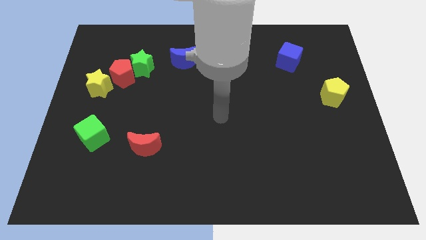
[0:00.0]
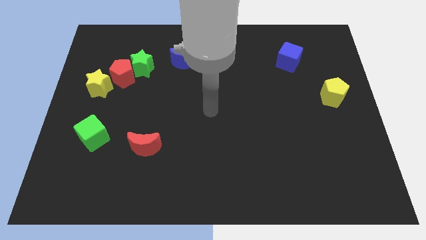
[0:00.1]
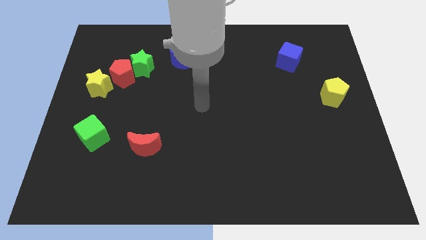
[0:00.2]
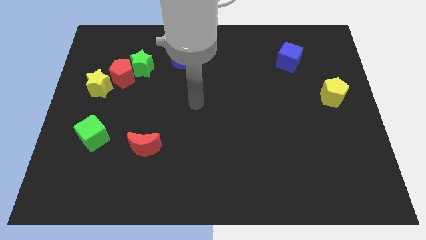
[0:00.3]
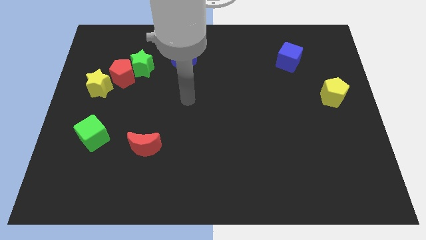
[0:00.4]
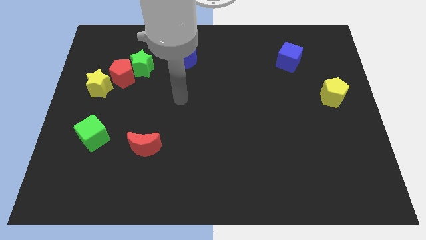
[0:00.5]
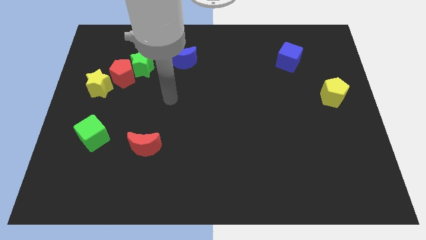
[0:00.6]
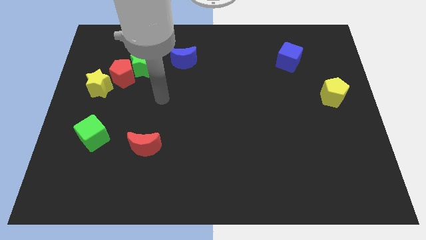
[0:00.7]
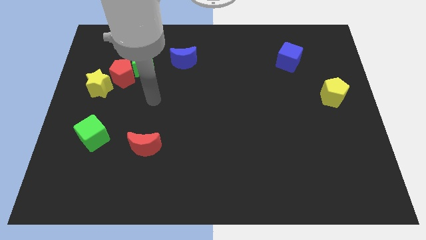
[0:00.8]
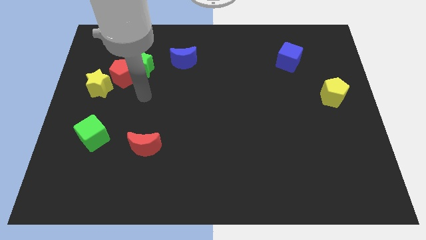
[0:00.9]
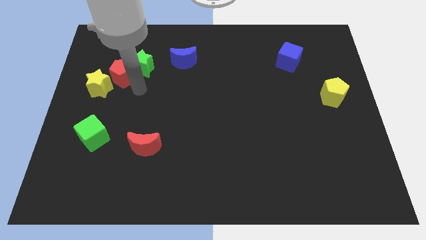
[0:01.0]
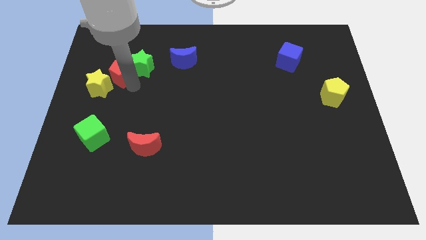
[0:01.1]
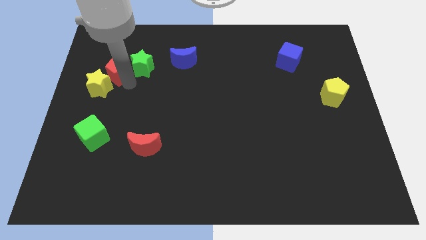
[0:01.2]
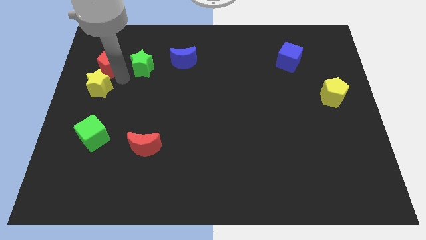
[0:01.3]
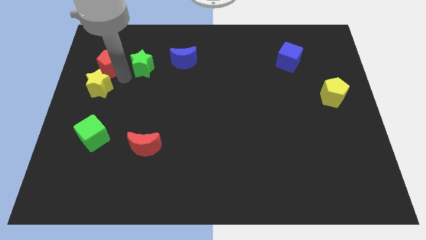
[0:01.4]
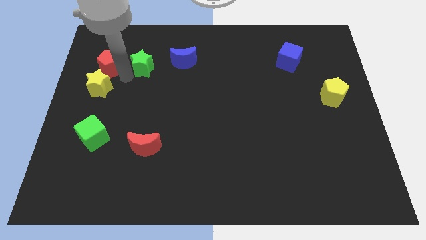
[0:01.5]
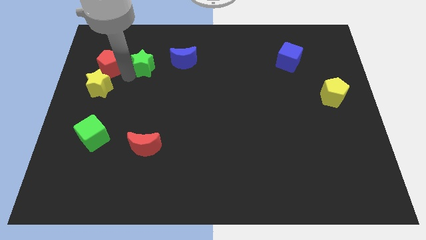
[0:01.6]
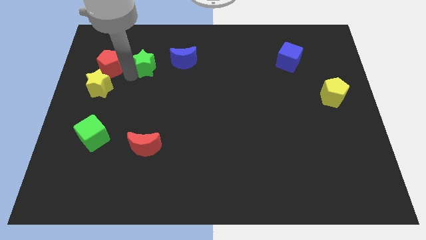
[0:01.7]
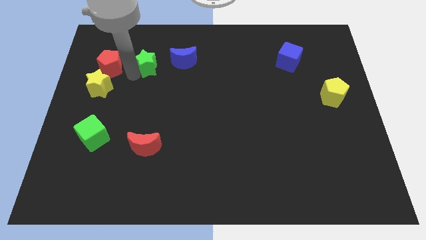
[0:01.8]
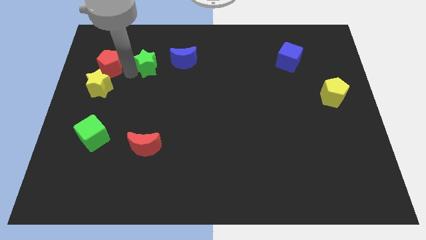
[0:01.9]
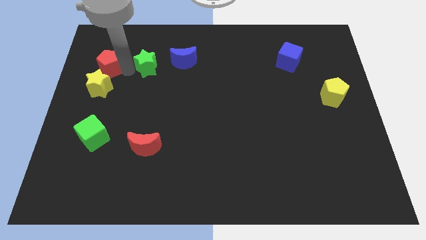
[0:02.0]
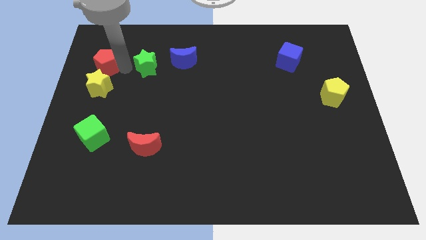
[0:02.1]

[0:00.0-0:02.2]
pull the green star apart from the red pentagon

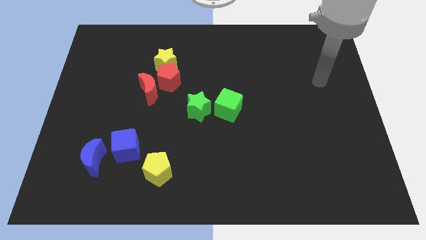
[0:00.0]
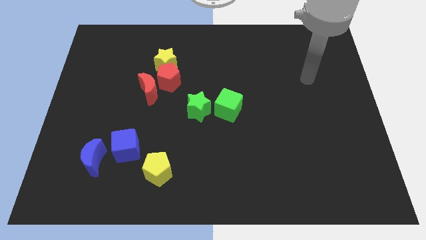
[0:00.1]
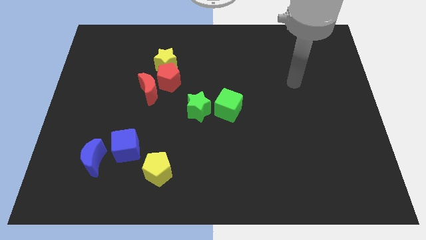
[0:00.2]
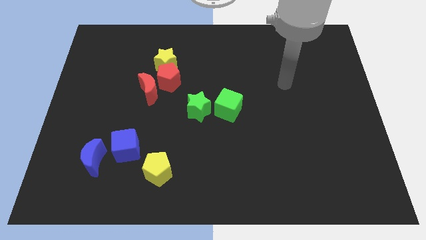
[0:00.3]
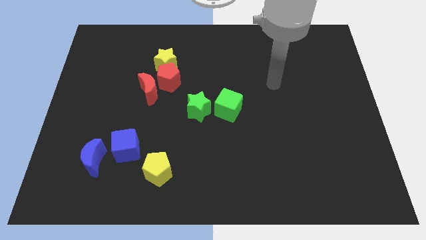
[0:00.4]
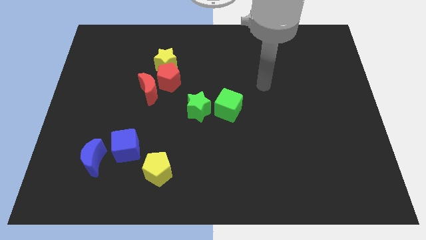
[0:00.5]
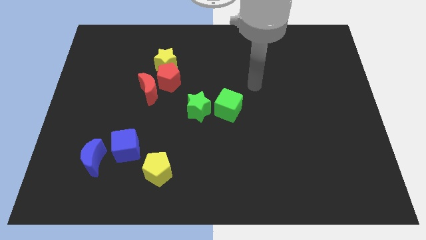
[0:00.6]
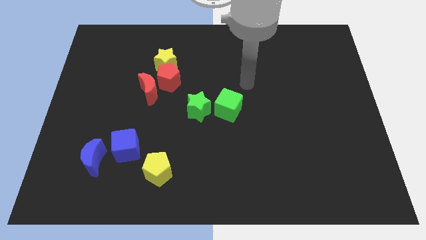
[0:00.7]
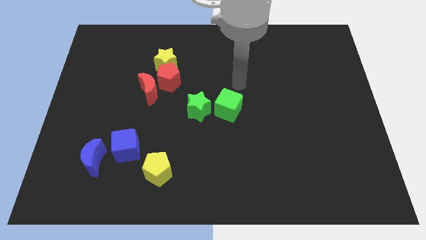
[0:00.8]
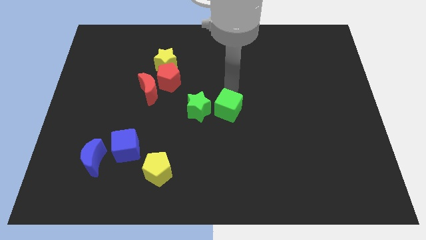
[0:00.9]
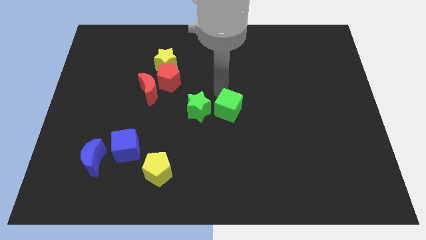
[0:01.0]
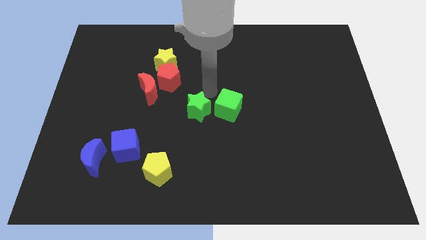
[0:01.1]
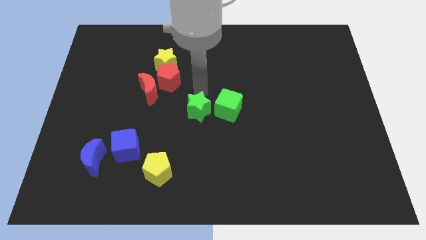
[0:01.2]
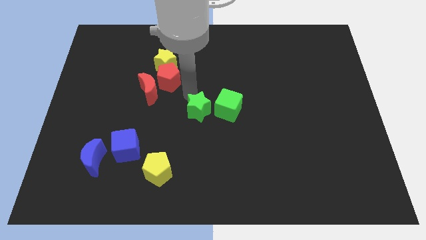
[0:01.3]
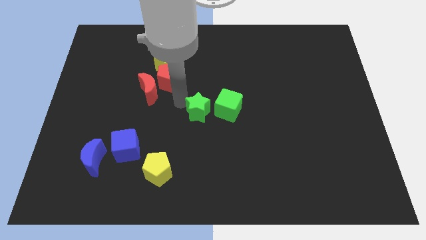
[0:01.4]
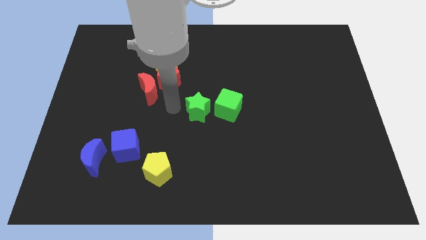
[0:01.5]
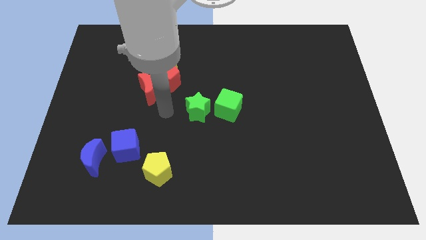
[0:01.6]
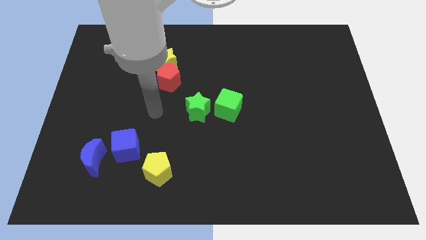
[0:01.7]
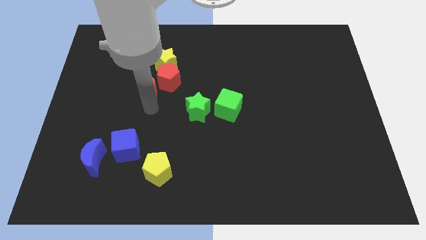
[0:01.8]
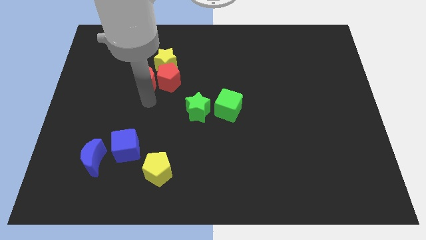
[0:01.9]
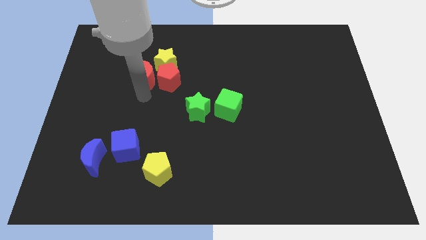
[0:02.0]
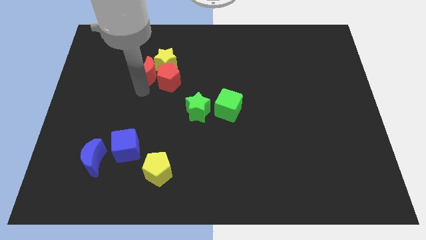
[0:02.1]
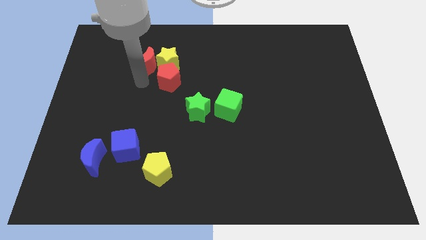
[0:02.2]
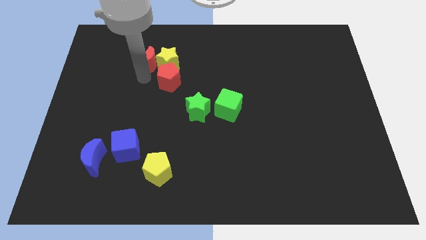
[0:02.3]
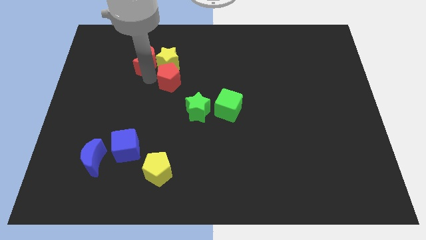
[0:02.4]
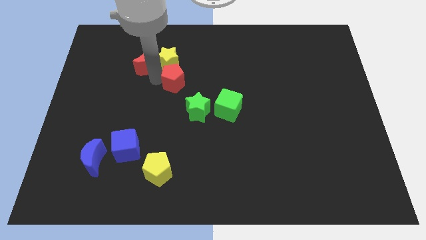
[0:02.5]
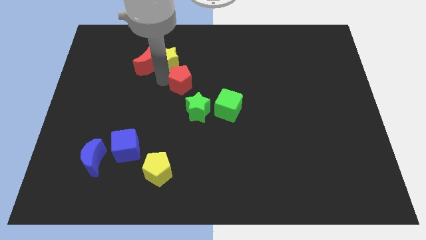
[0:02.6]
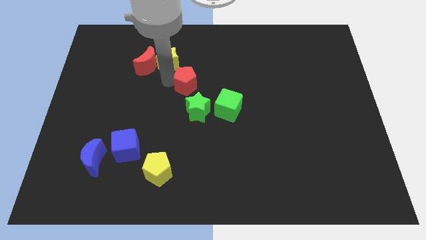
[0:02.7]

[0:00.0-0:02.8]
pull the red pentagon apart from the red moon and yellow star

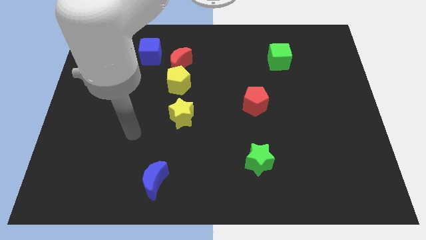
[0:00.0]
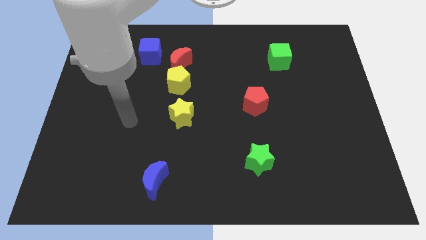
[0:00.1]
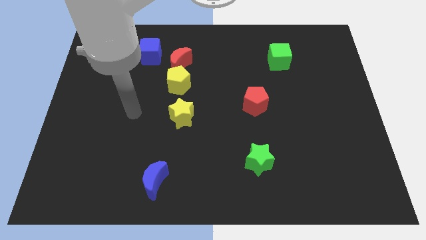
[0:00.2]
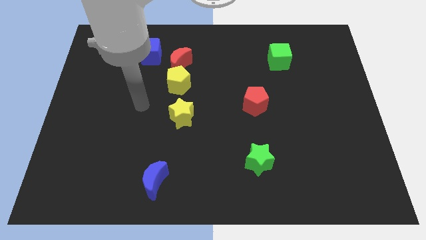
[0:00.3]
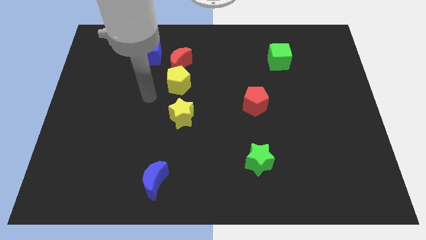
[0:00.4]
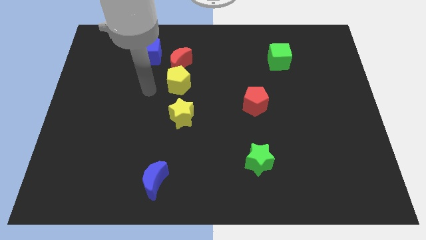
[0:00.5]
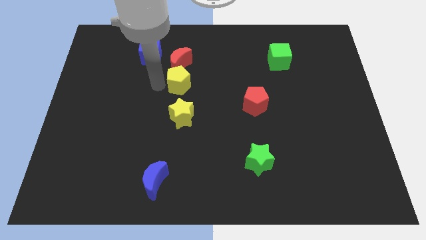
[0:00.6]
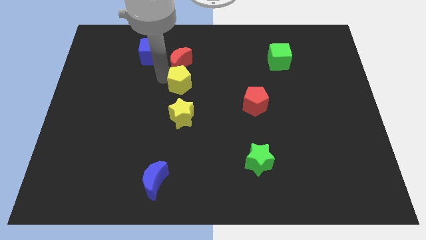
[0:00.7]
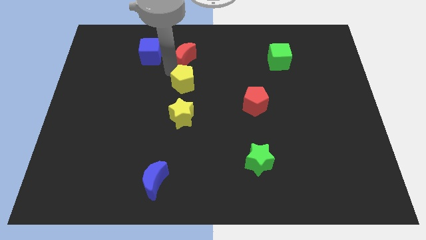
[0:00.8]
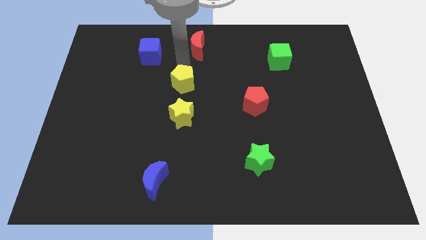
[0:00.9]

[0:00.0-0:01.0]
move the yellow pentagon away from the red moon

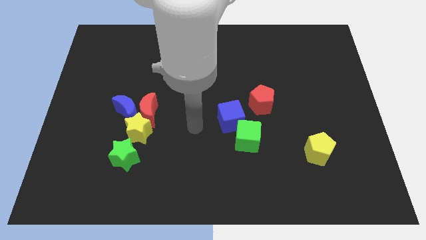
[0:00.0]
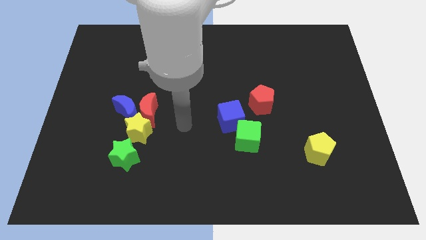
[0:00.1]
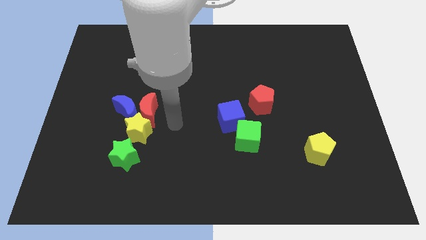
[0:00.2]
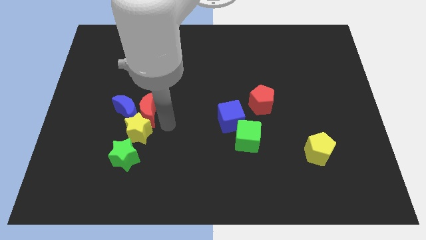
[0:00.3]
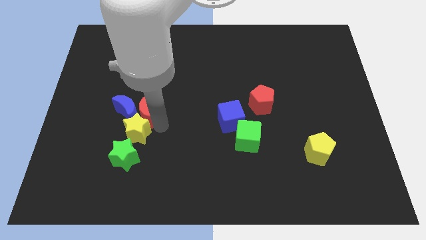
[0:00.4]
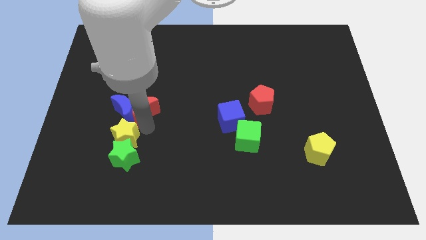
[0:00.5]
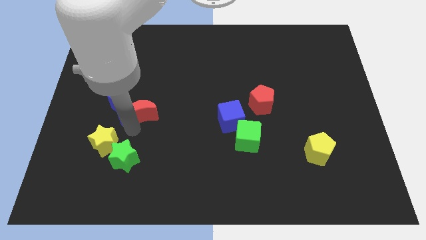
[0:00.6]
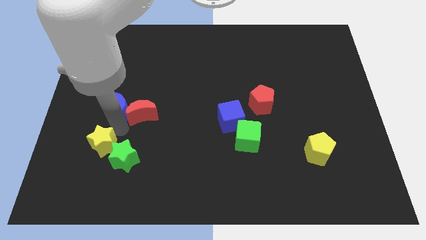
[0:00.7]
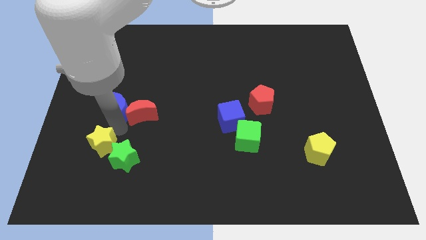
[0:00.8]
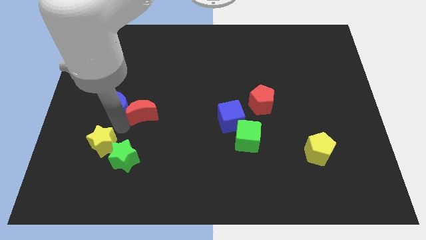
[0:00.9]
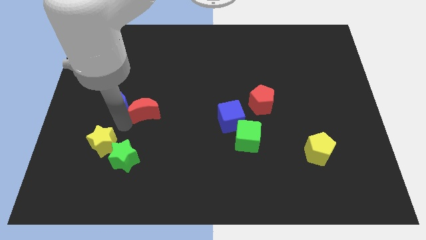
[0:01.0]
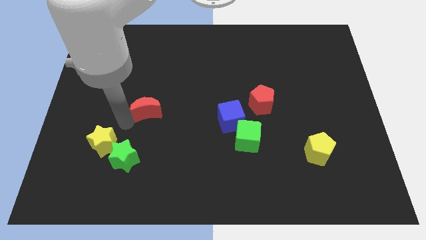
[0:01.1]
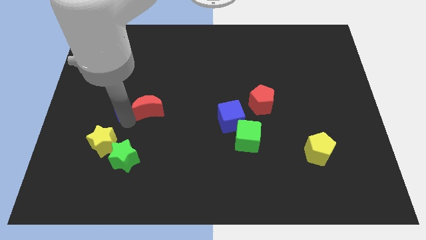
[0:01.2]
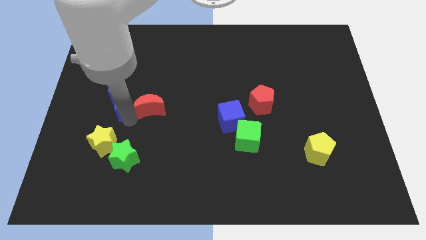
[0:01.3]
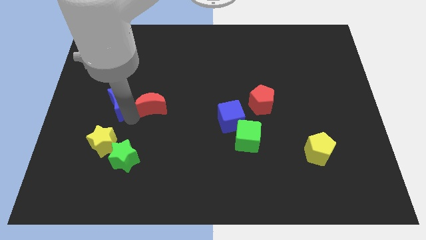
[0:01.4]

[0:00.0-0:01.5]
separate the red moon from the blue moon and yellow star

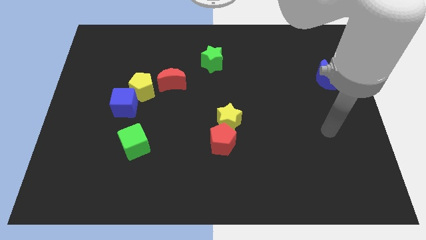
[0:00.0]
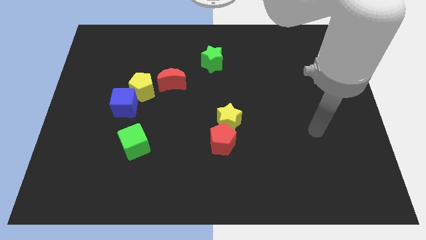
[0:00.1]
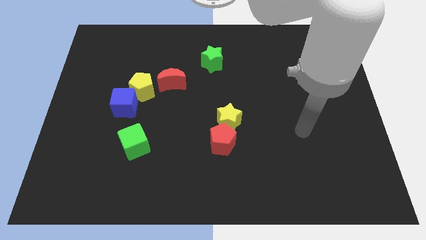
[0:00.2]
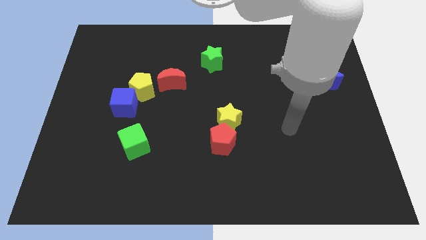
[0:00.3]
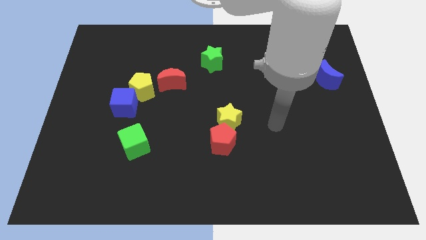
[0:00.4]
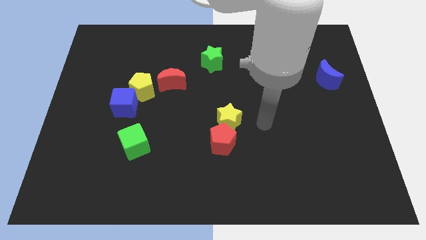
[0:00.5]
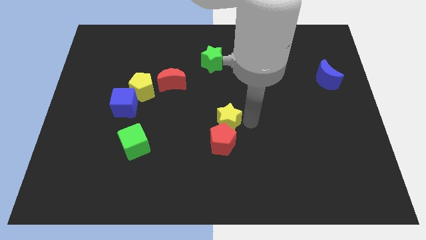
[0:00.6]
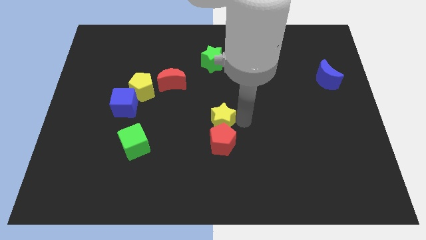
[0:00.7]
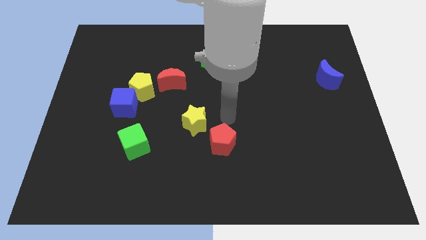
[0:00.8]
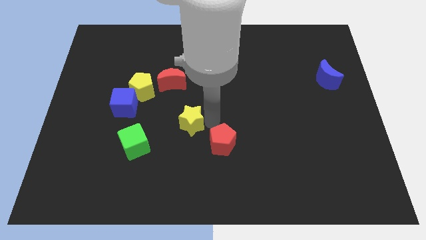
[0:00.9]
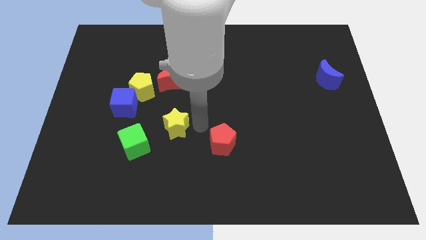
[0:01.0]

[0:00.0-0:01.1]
move the red pentagon away from the yellow star

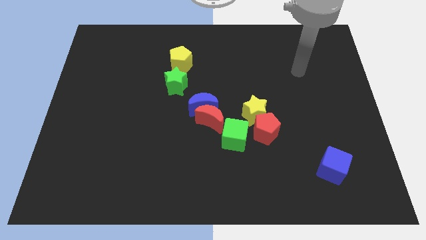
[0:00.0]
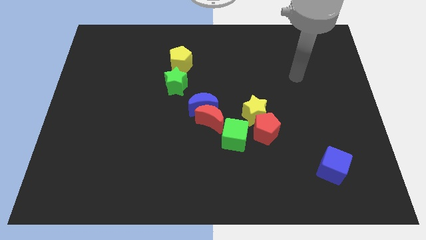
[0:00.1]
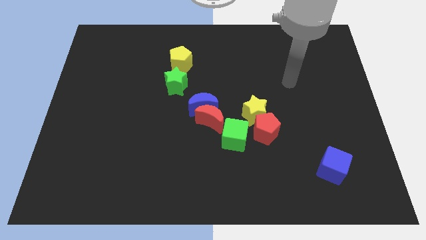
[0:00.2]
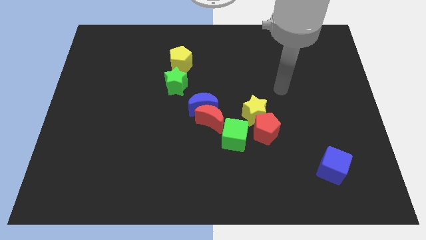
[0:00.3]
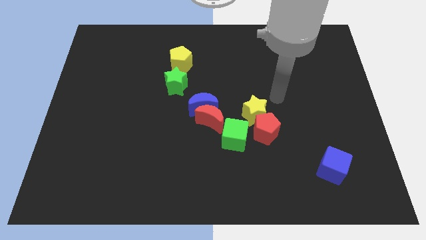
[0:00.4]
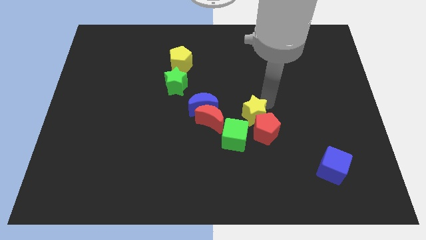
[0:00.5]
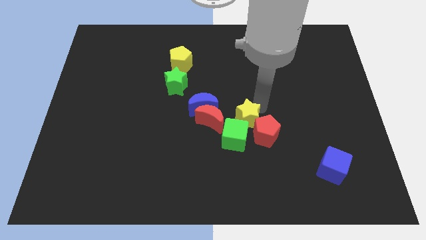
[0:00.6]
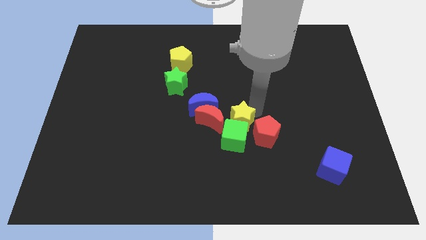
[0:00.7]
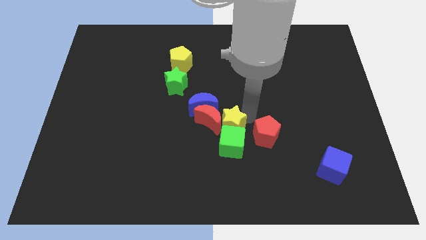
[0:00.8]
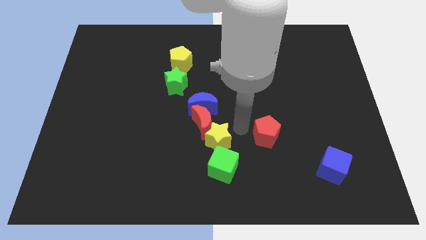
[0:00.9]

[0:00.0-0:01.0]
separate the red pentagon from the yellow star and green cube
